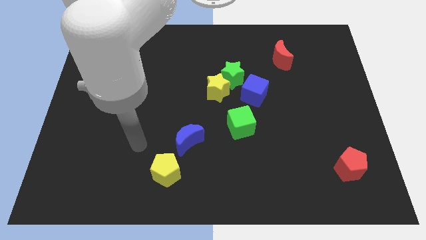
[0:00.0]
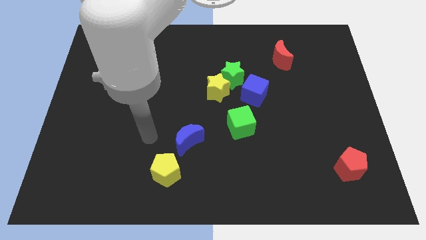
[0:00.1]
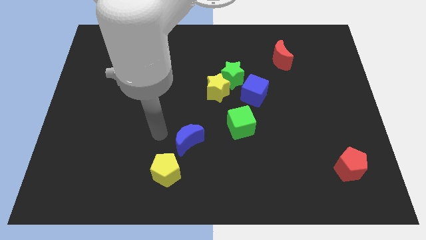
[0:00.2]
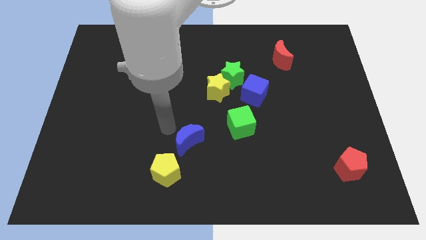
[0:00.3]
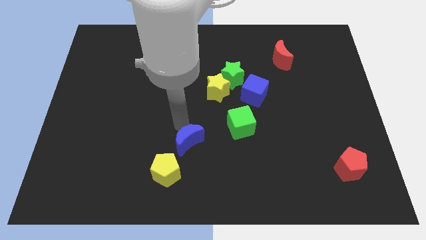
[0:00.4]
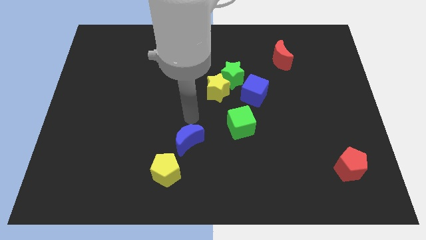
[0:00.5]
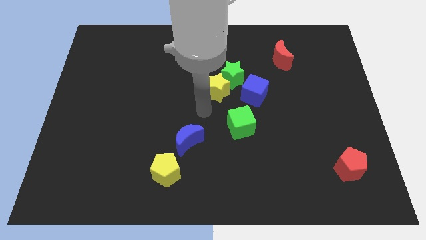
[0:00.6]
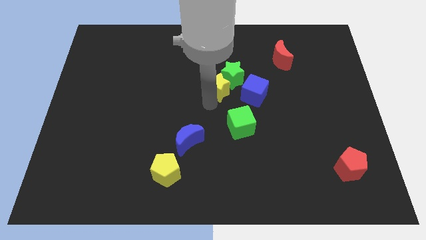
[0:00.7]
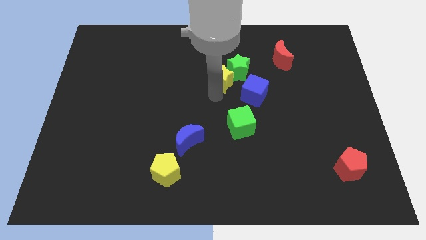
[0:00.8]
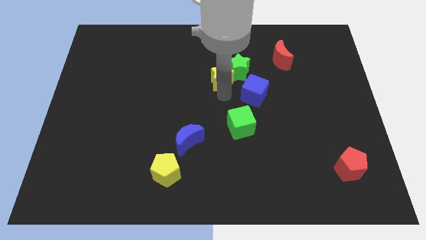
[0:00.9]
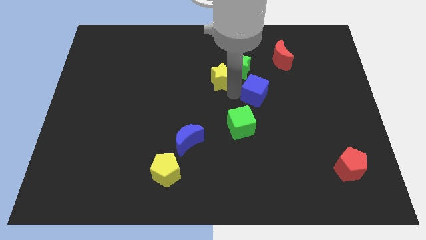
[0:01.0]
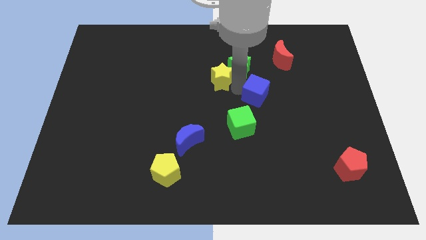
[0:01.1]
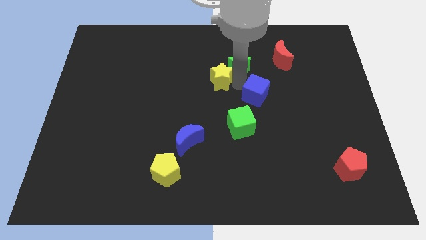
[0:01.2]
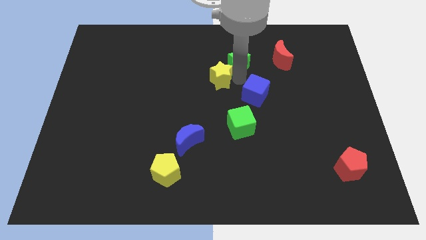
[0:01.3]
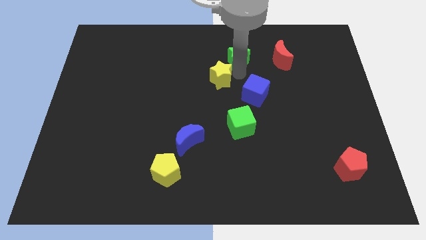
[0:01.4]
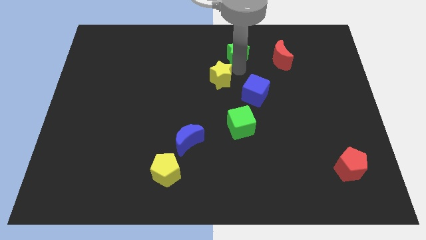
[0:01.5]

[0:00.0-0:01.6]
move the green star away from the yellow star and blue cube

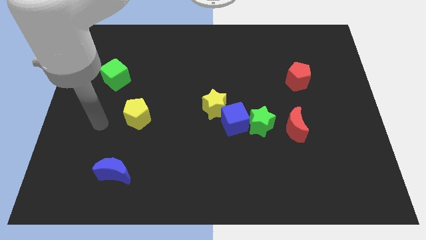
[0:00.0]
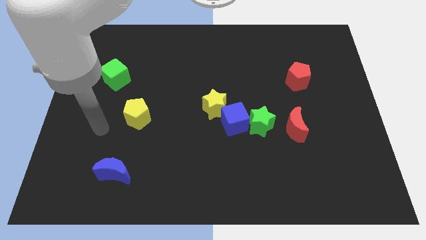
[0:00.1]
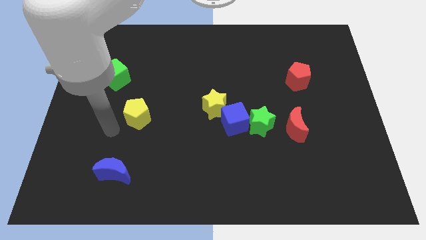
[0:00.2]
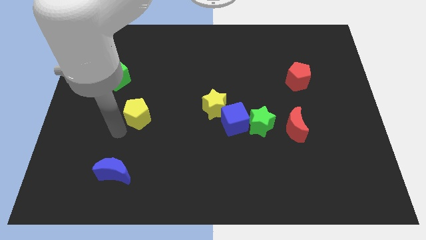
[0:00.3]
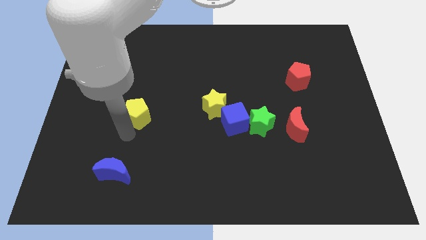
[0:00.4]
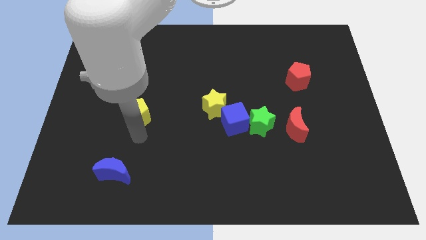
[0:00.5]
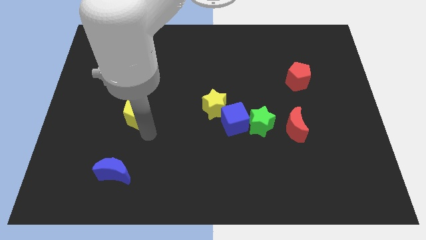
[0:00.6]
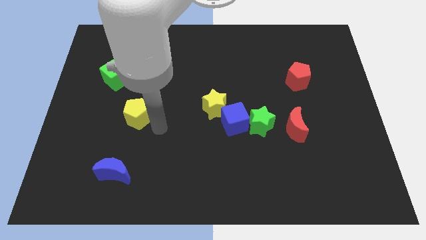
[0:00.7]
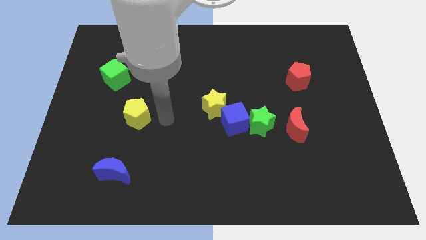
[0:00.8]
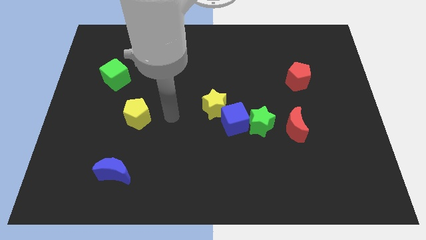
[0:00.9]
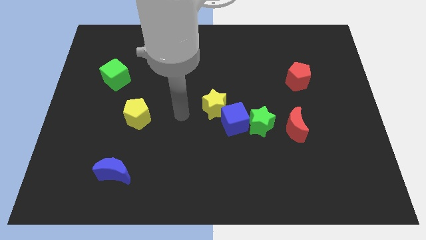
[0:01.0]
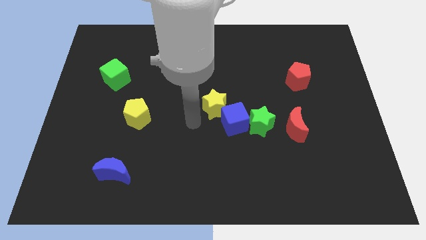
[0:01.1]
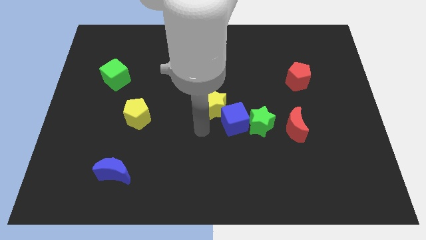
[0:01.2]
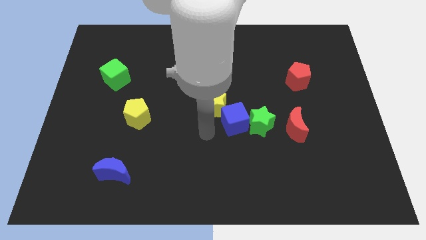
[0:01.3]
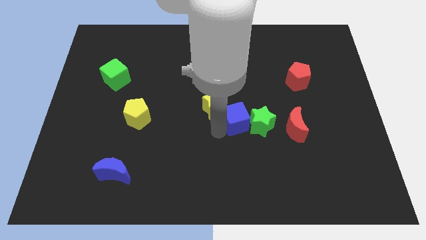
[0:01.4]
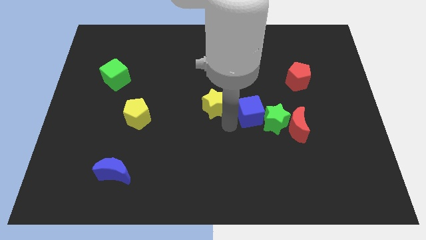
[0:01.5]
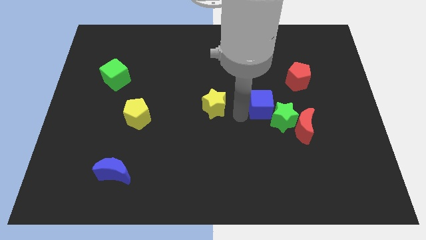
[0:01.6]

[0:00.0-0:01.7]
separate the yellow star from the blue cube

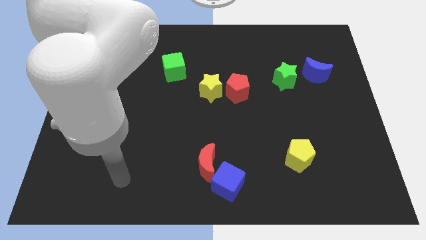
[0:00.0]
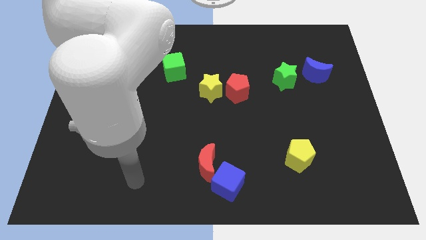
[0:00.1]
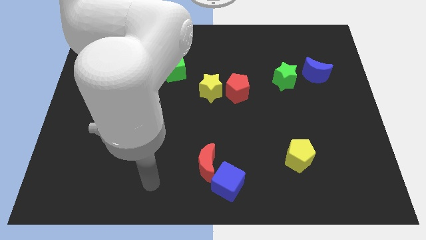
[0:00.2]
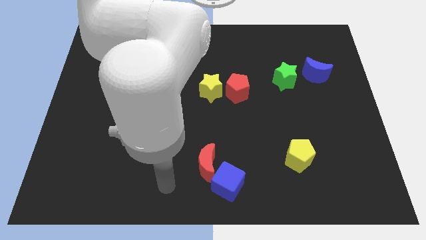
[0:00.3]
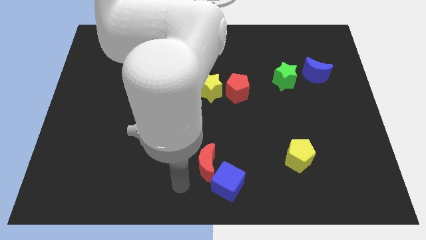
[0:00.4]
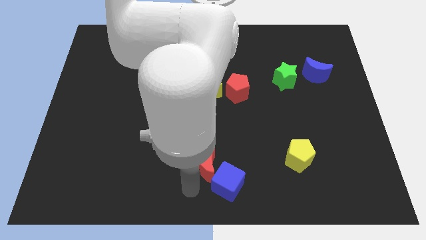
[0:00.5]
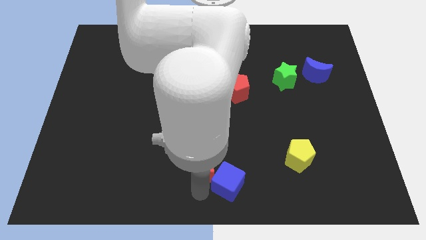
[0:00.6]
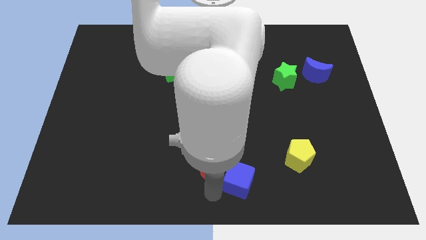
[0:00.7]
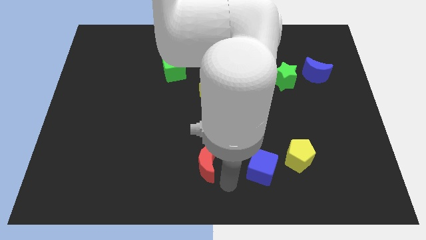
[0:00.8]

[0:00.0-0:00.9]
separate the red moon from the blue cube

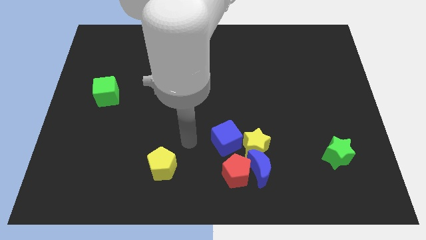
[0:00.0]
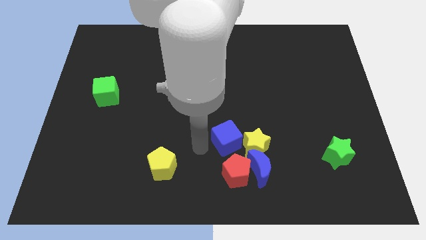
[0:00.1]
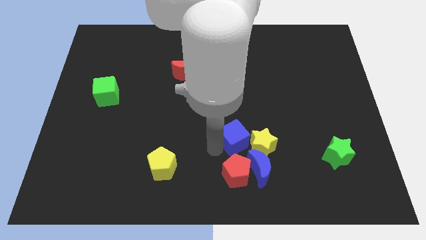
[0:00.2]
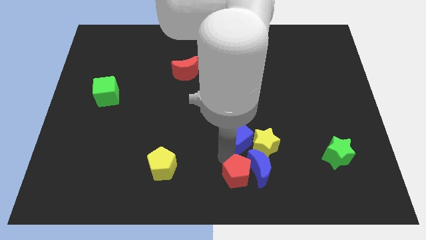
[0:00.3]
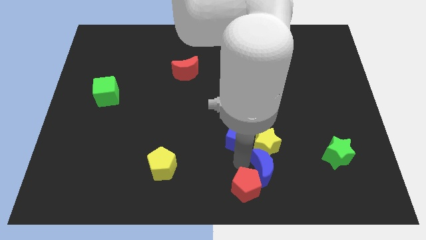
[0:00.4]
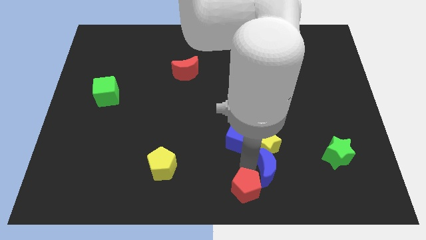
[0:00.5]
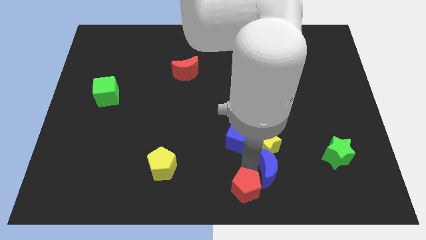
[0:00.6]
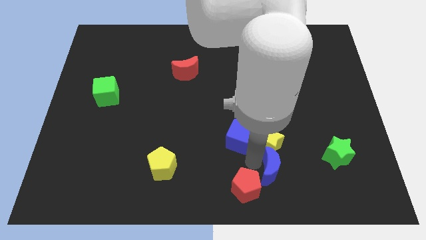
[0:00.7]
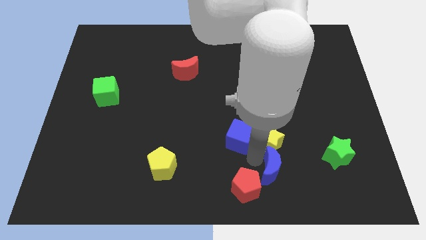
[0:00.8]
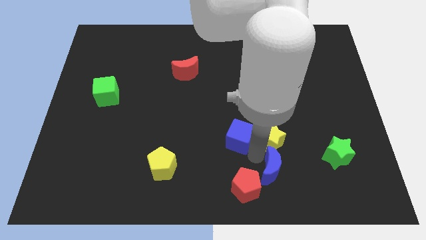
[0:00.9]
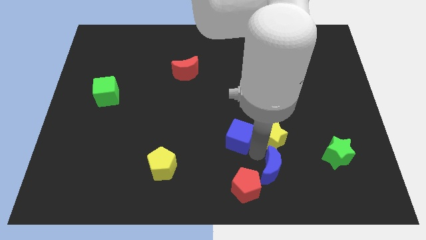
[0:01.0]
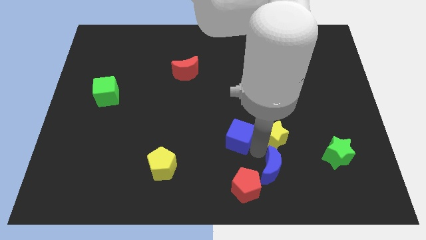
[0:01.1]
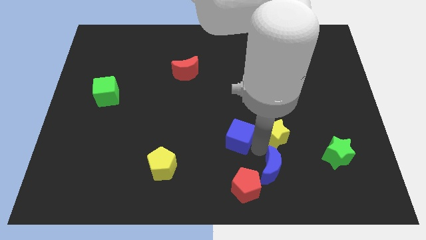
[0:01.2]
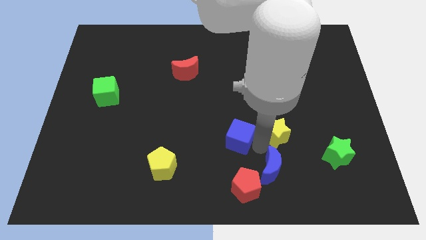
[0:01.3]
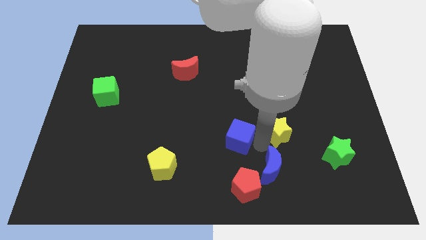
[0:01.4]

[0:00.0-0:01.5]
move the yellow star away from the blue moon, blue cube, and red pentagon

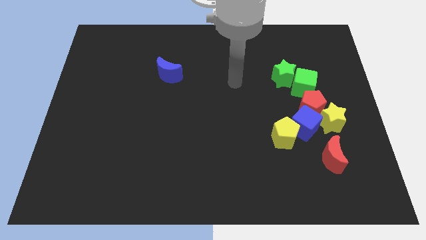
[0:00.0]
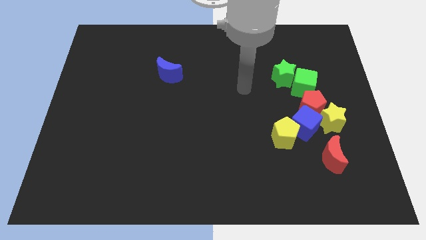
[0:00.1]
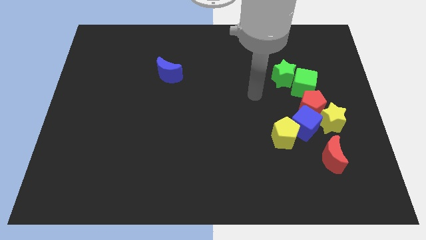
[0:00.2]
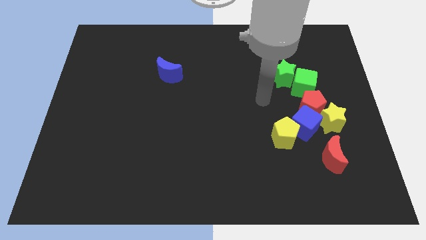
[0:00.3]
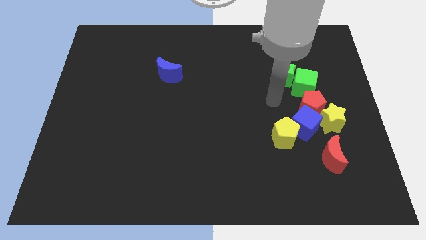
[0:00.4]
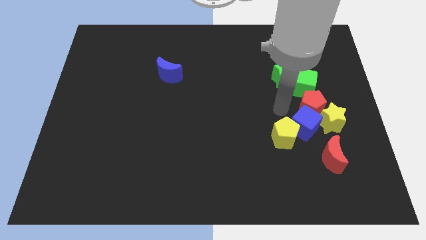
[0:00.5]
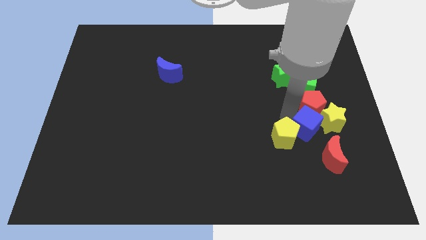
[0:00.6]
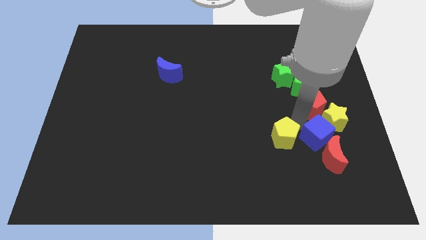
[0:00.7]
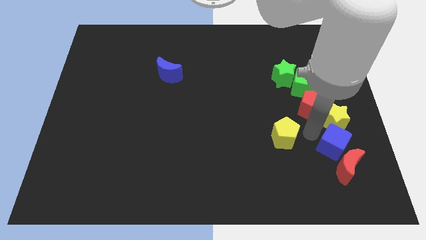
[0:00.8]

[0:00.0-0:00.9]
pull the yellow pentagon apart from the blue cube

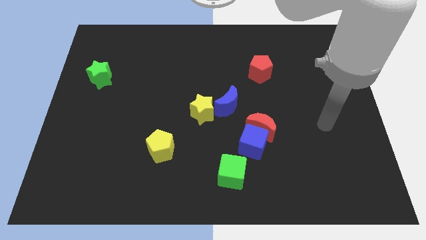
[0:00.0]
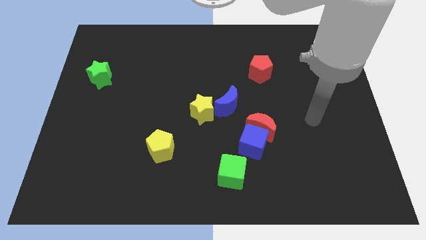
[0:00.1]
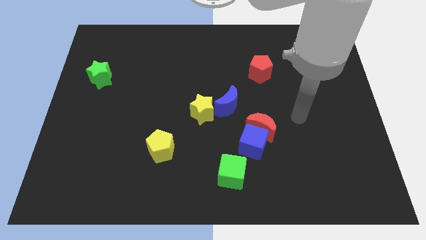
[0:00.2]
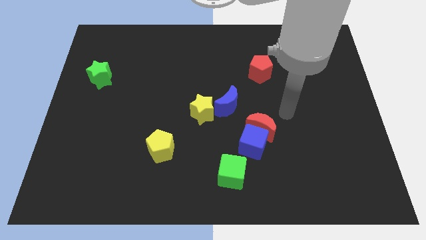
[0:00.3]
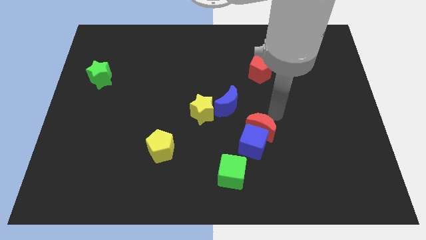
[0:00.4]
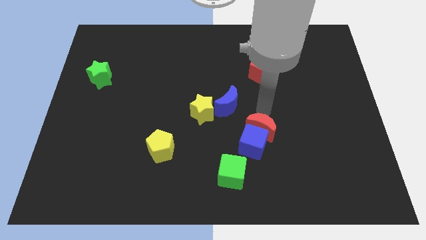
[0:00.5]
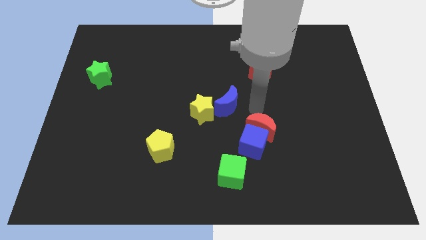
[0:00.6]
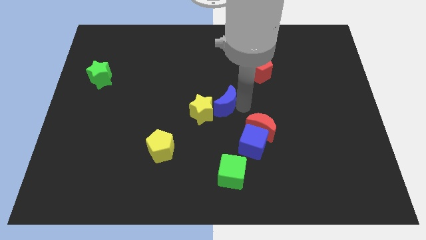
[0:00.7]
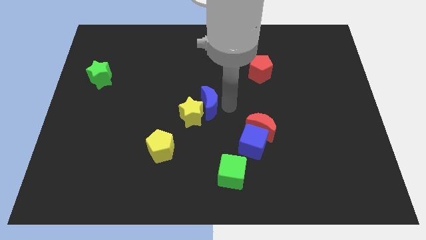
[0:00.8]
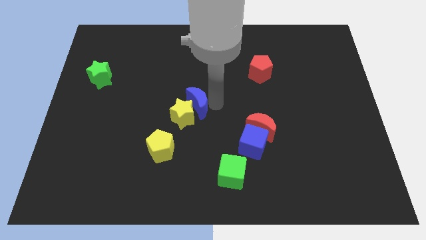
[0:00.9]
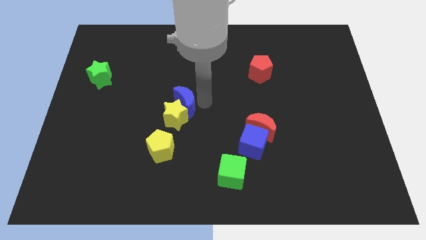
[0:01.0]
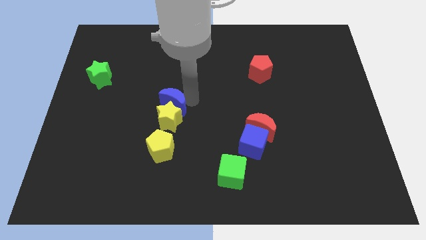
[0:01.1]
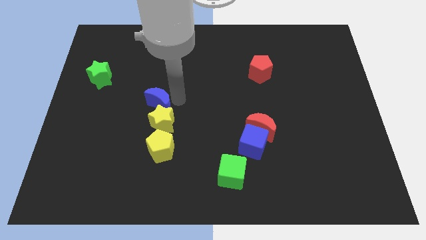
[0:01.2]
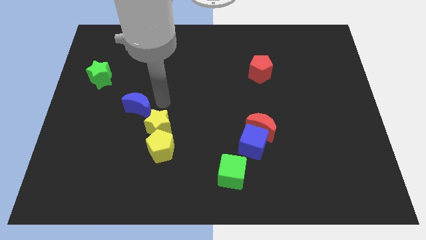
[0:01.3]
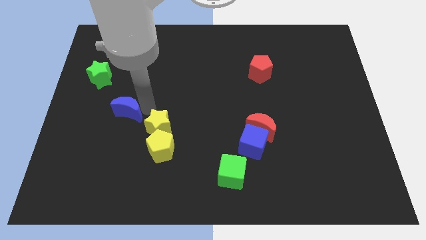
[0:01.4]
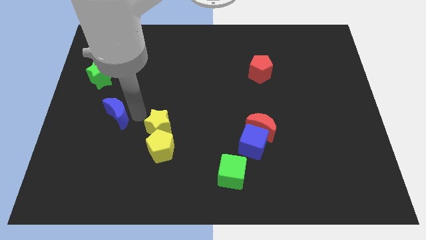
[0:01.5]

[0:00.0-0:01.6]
pull the yellow star apart from the blue moon

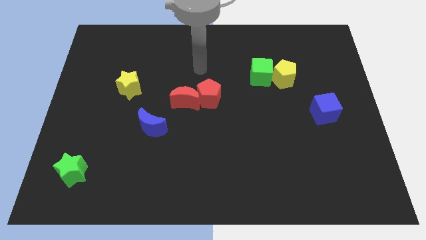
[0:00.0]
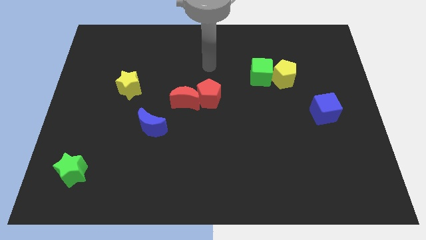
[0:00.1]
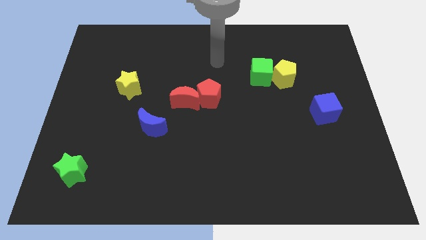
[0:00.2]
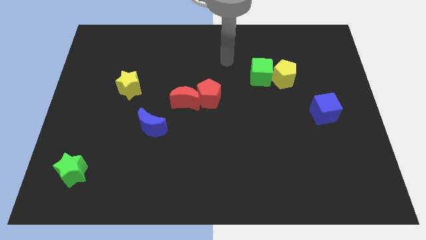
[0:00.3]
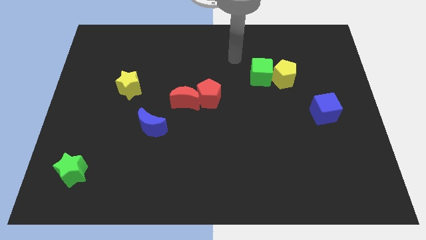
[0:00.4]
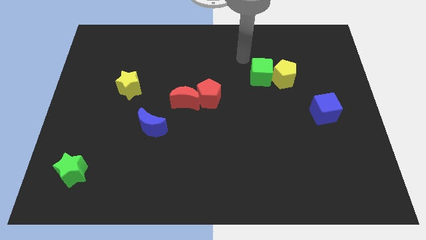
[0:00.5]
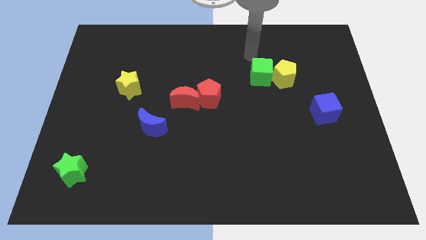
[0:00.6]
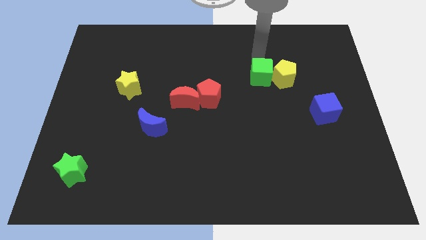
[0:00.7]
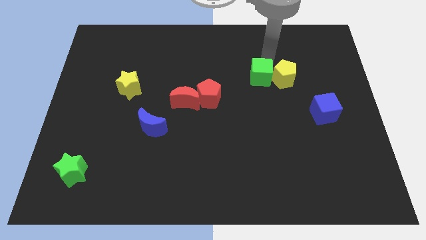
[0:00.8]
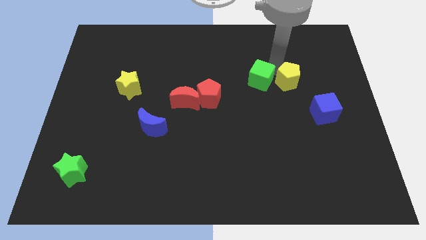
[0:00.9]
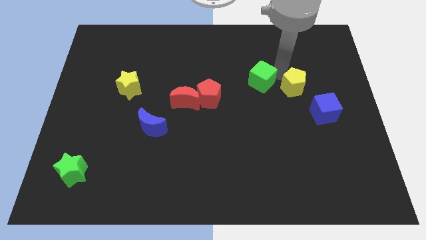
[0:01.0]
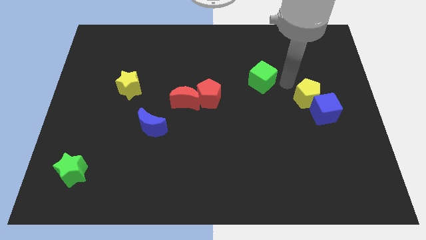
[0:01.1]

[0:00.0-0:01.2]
move the green cube away from the yellow pentagon
